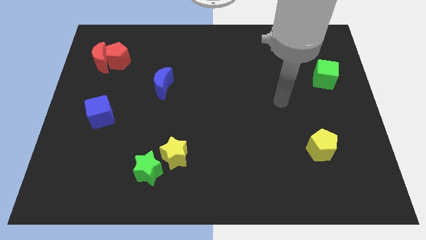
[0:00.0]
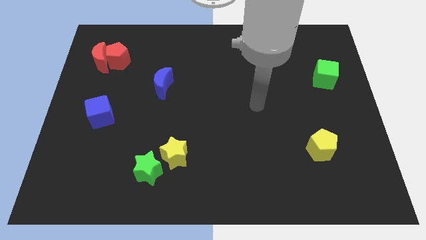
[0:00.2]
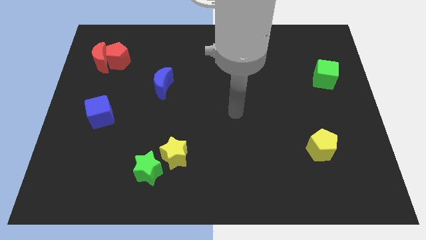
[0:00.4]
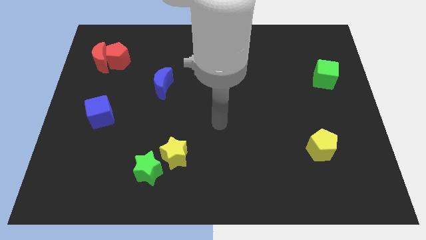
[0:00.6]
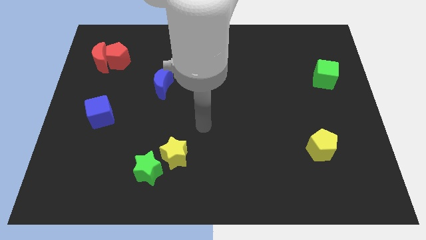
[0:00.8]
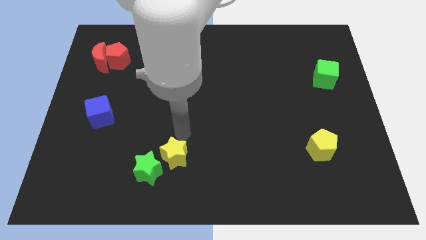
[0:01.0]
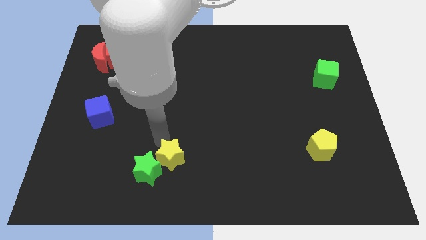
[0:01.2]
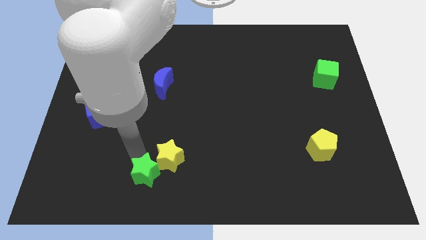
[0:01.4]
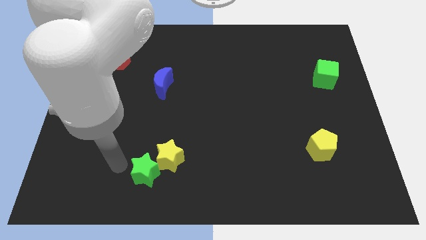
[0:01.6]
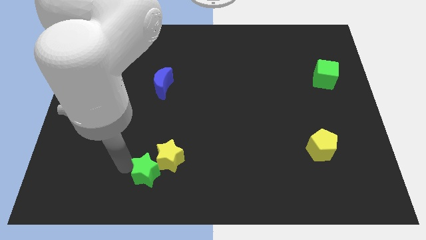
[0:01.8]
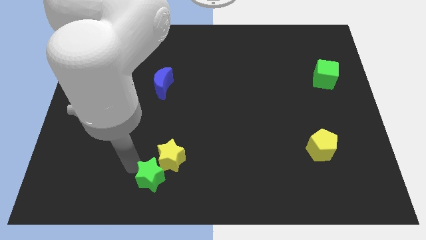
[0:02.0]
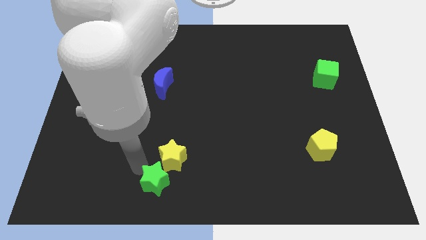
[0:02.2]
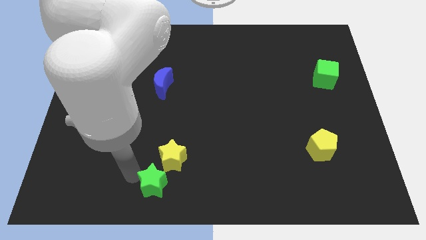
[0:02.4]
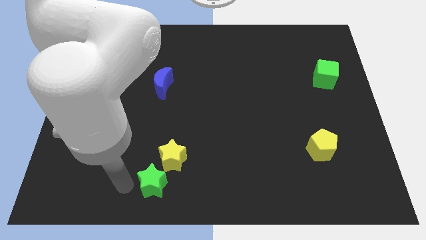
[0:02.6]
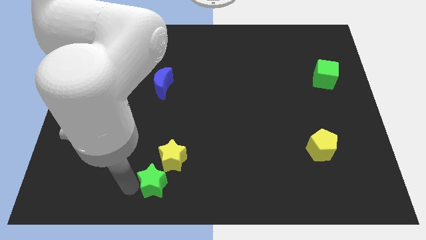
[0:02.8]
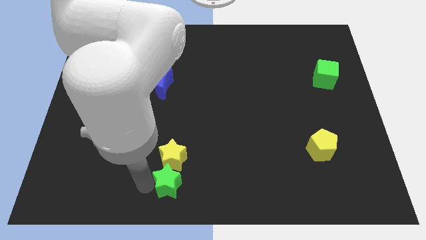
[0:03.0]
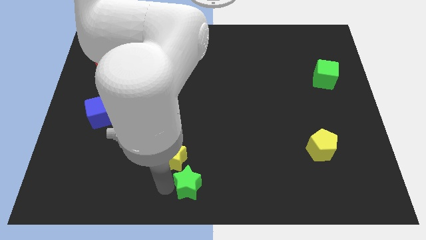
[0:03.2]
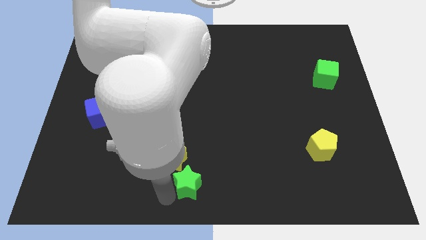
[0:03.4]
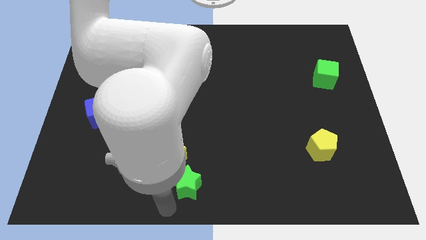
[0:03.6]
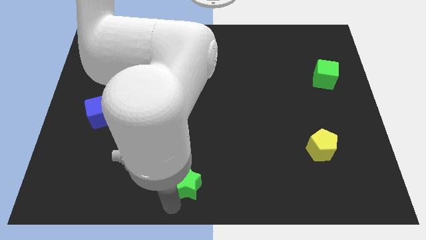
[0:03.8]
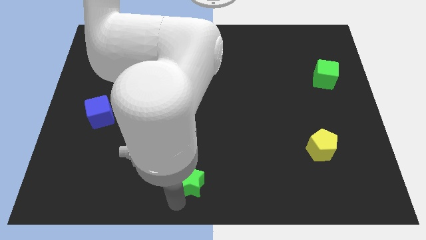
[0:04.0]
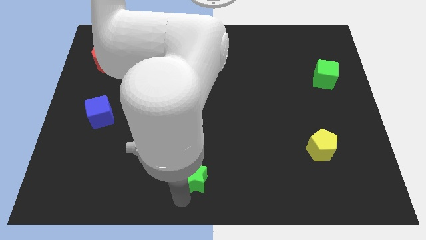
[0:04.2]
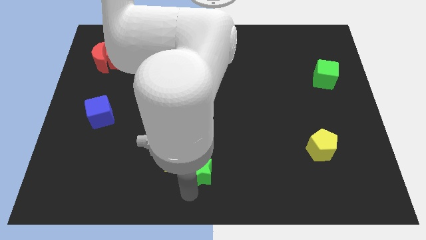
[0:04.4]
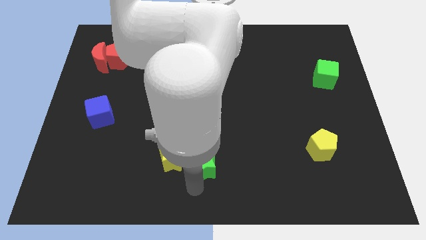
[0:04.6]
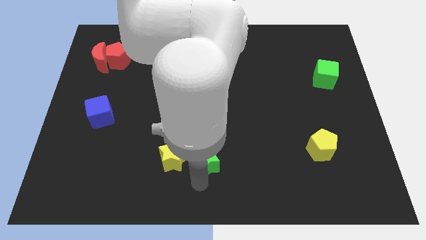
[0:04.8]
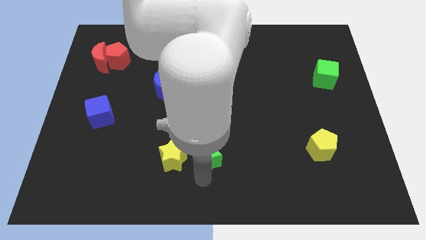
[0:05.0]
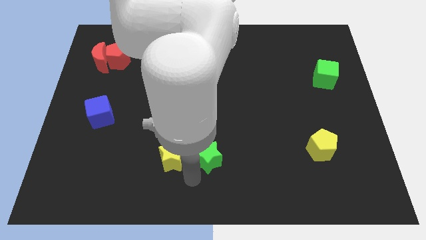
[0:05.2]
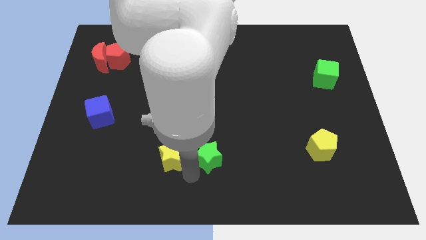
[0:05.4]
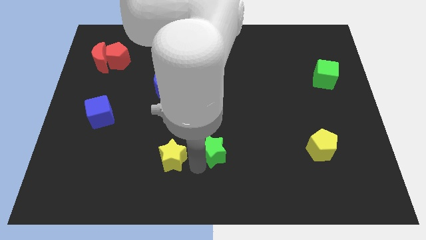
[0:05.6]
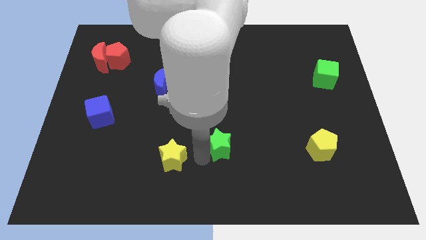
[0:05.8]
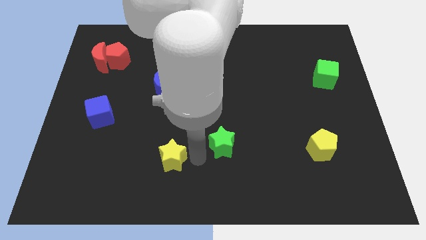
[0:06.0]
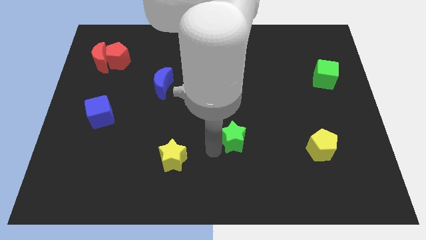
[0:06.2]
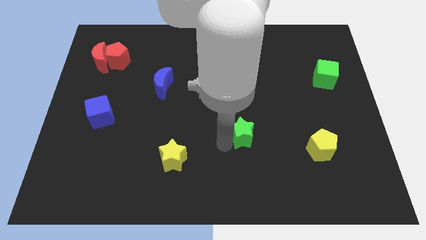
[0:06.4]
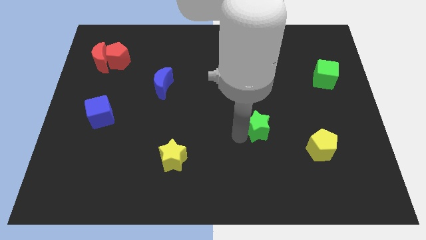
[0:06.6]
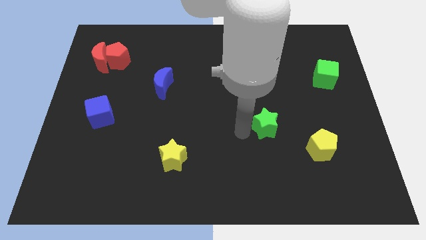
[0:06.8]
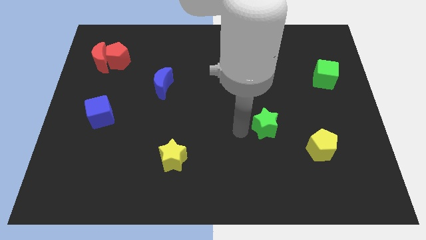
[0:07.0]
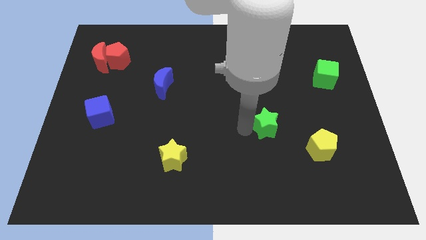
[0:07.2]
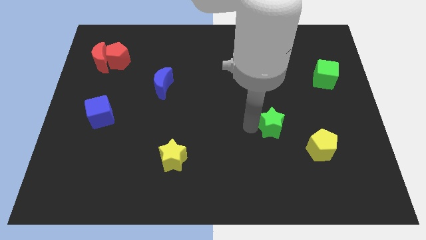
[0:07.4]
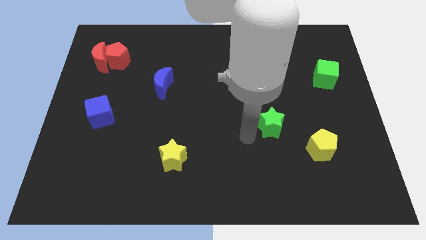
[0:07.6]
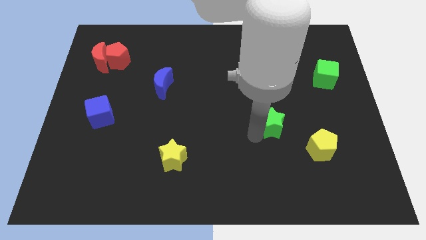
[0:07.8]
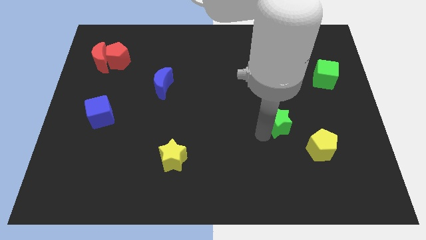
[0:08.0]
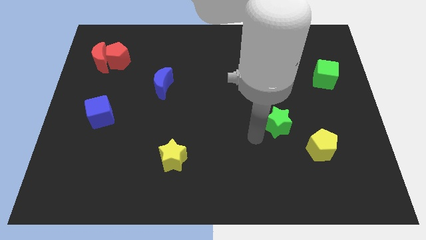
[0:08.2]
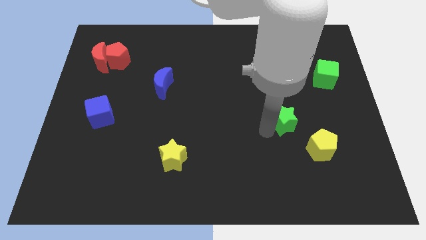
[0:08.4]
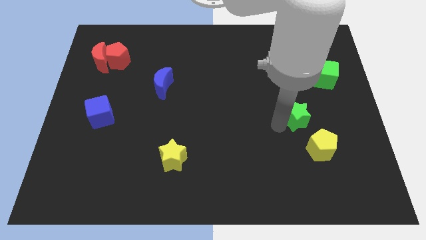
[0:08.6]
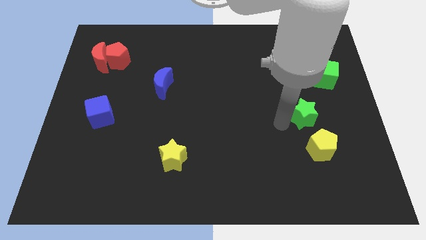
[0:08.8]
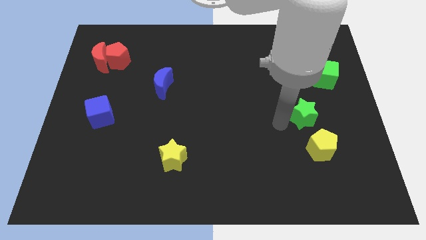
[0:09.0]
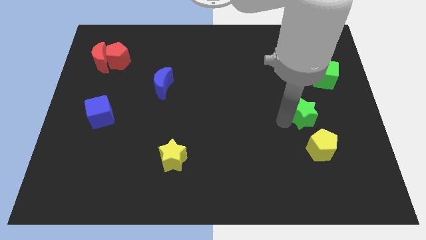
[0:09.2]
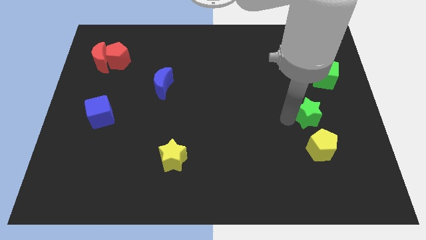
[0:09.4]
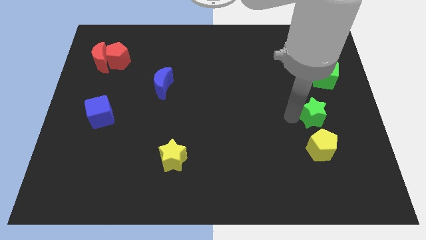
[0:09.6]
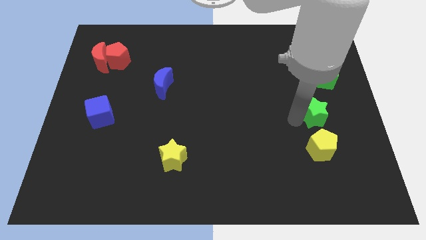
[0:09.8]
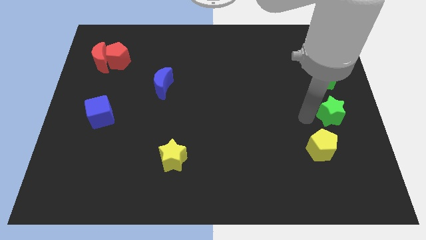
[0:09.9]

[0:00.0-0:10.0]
move the green star to the right side

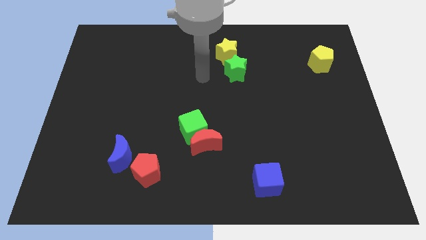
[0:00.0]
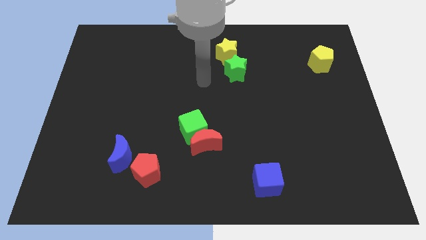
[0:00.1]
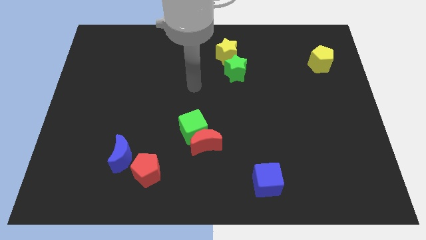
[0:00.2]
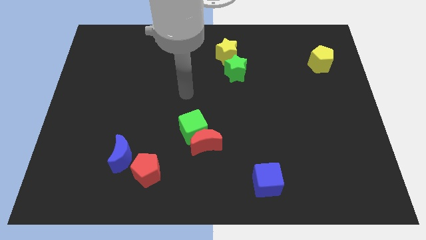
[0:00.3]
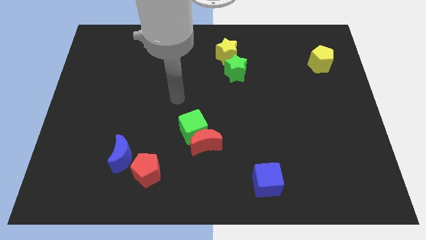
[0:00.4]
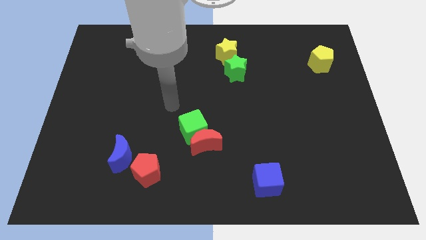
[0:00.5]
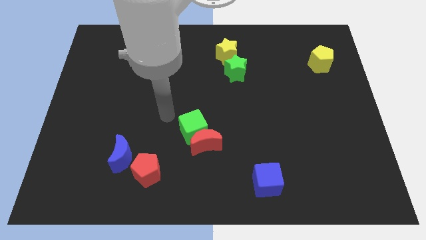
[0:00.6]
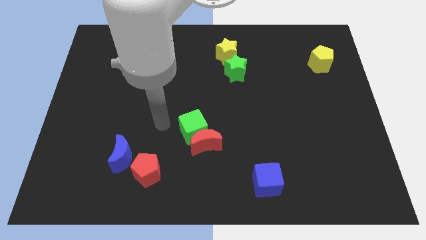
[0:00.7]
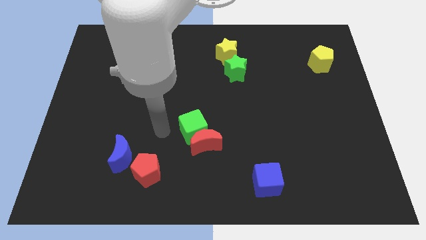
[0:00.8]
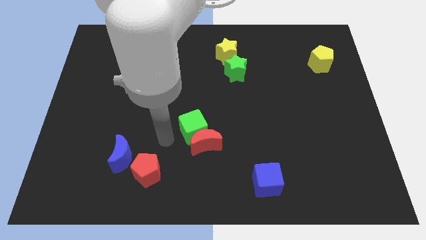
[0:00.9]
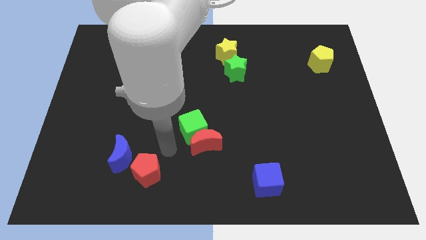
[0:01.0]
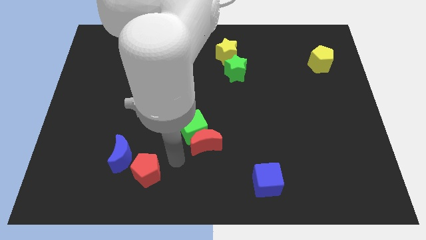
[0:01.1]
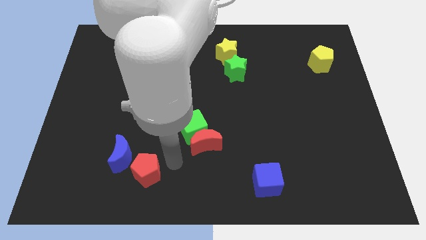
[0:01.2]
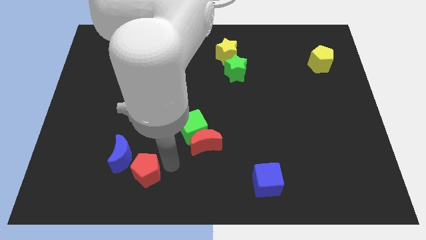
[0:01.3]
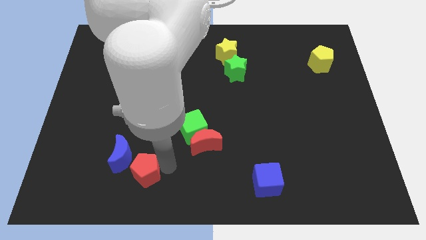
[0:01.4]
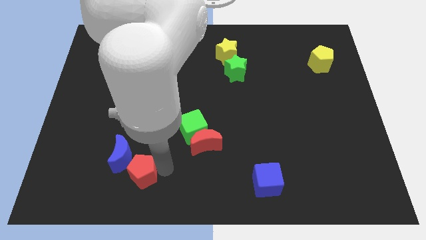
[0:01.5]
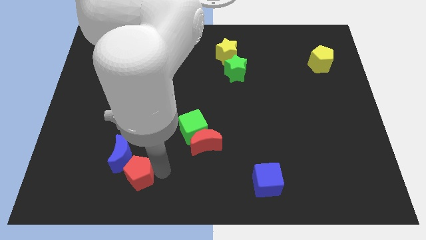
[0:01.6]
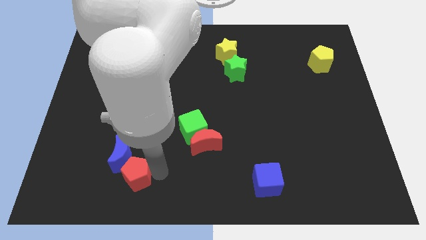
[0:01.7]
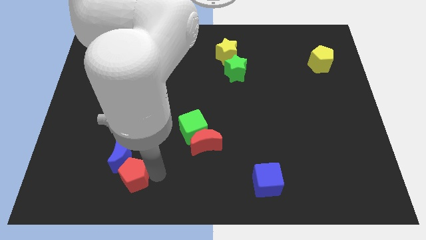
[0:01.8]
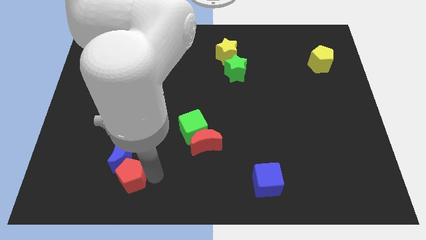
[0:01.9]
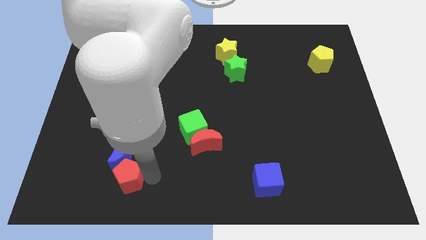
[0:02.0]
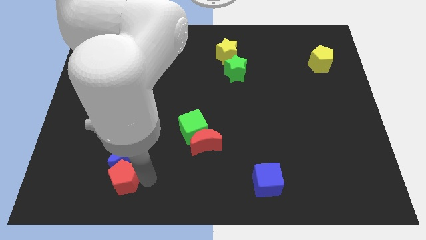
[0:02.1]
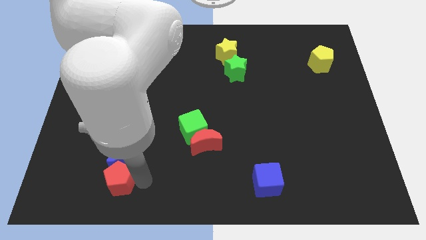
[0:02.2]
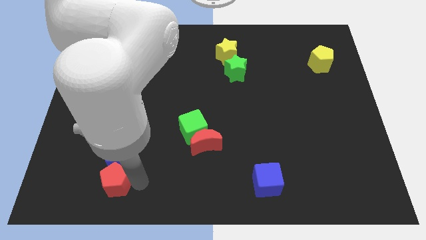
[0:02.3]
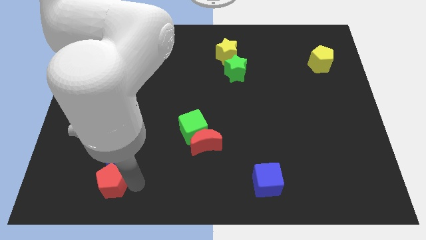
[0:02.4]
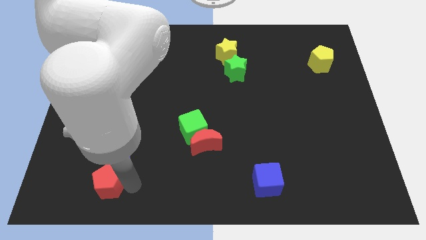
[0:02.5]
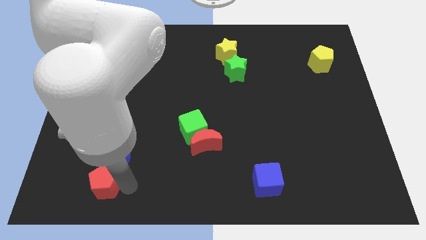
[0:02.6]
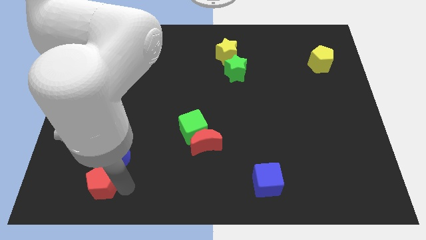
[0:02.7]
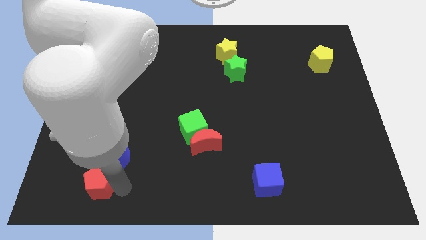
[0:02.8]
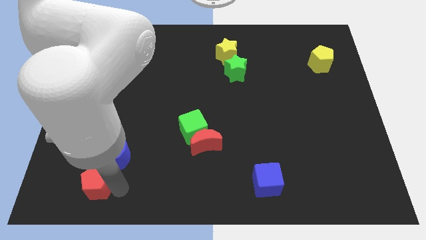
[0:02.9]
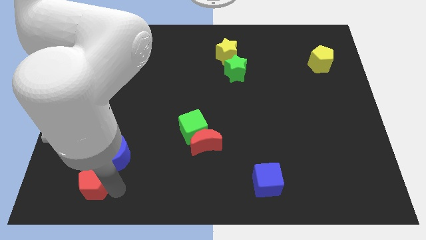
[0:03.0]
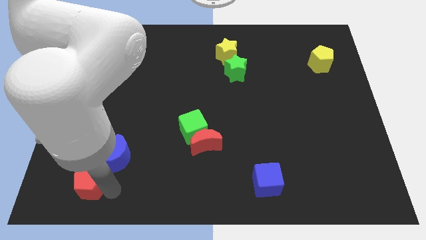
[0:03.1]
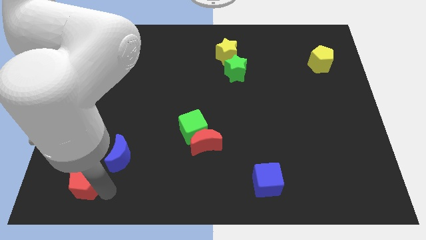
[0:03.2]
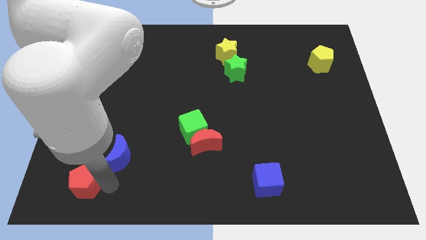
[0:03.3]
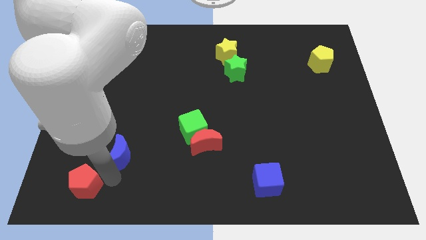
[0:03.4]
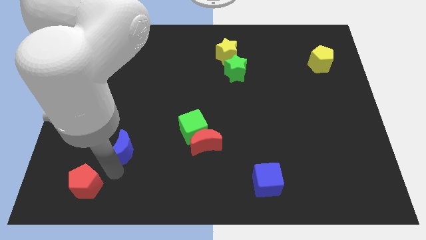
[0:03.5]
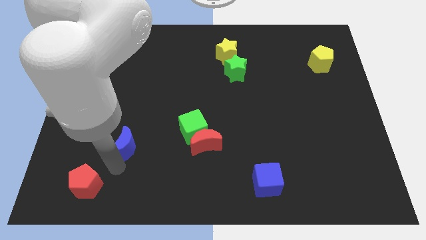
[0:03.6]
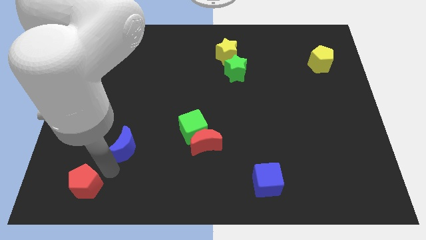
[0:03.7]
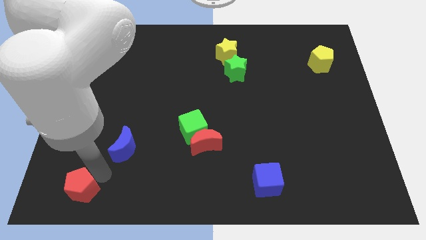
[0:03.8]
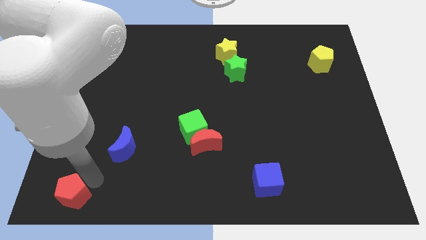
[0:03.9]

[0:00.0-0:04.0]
slide the red pentagon to the bottom left
